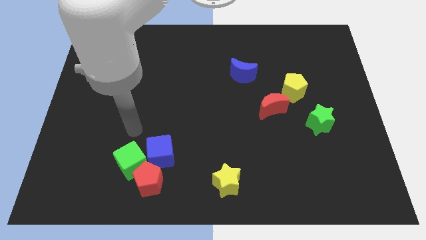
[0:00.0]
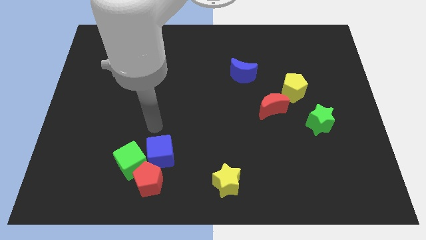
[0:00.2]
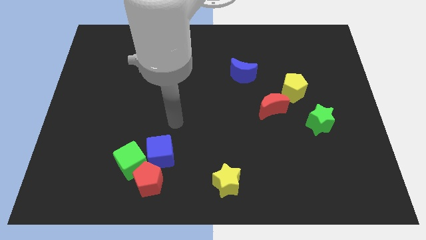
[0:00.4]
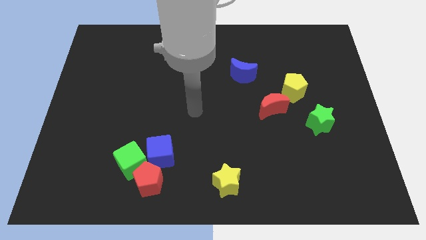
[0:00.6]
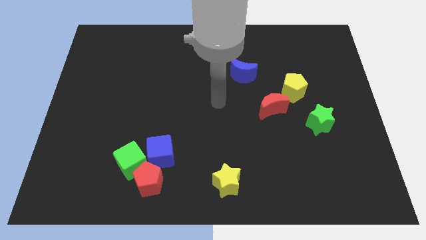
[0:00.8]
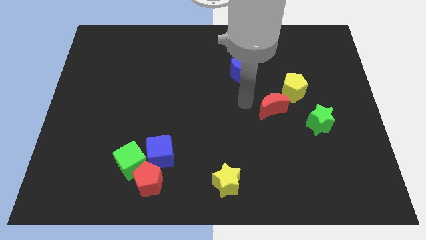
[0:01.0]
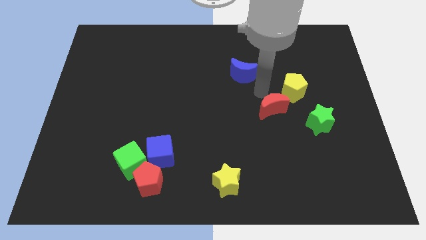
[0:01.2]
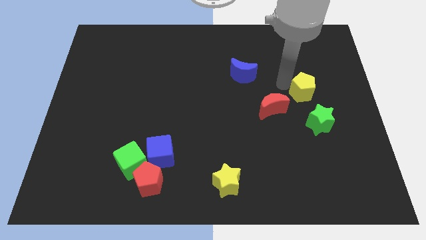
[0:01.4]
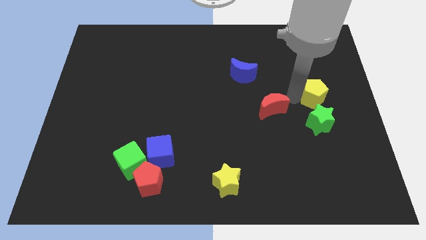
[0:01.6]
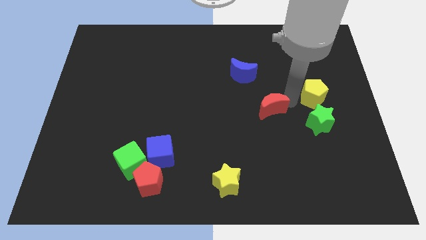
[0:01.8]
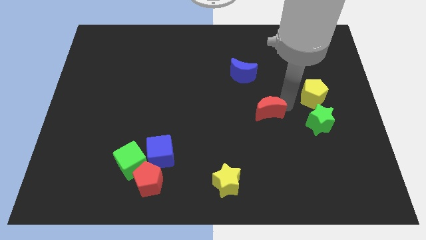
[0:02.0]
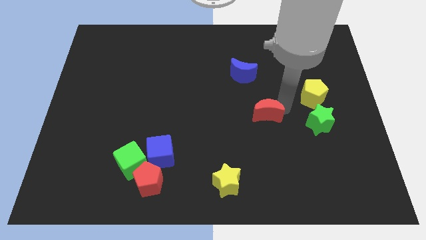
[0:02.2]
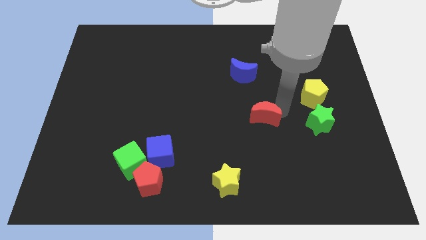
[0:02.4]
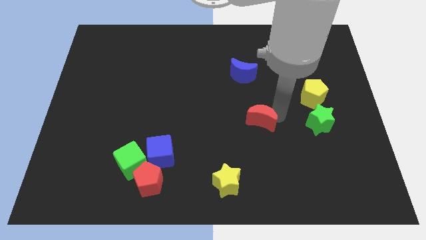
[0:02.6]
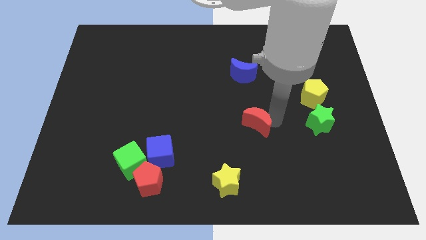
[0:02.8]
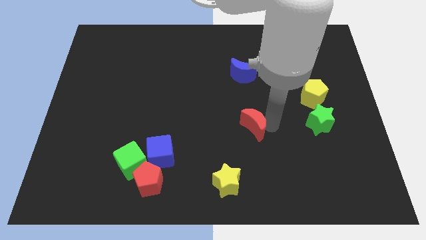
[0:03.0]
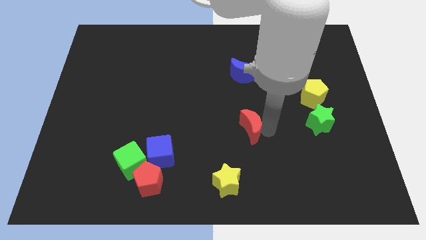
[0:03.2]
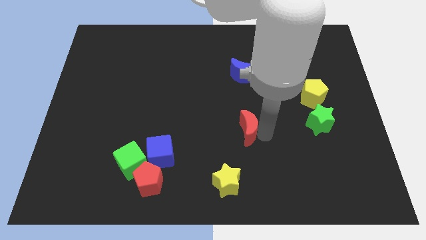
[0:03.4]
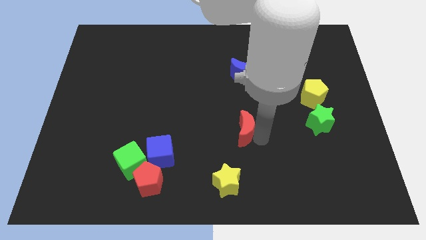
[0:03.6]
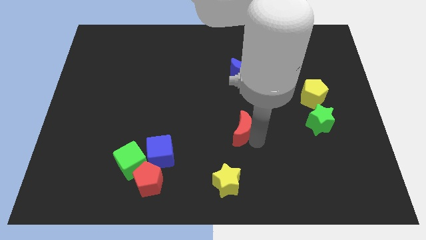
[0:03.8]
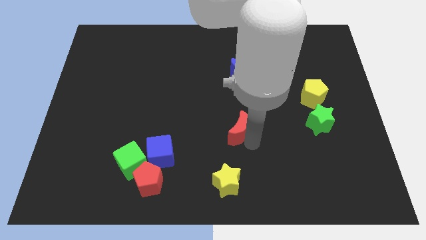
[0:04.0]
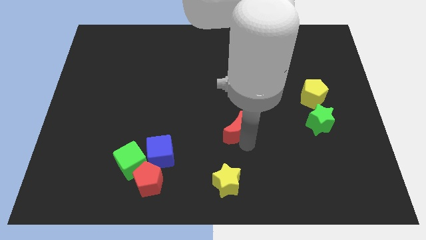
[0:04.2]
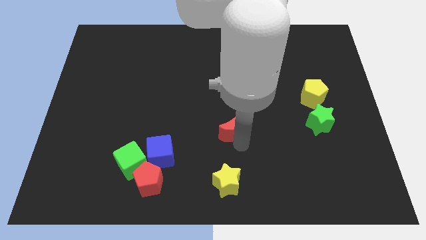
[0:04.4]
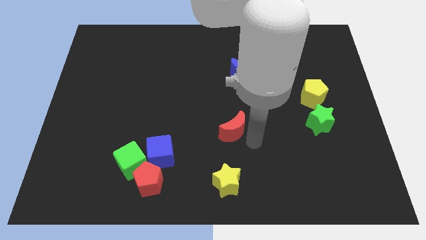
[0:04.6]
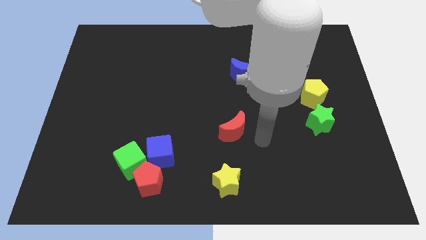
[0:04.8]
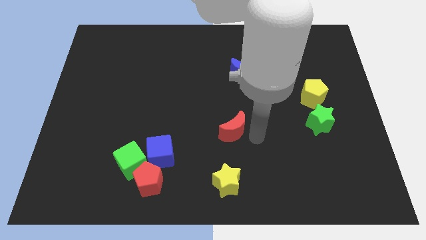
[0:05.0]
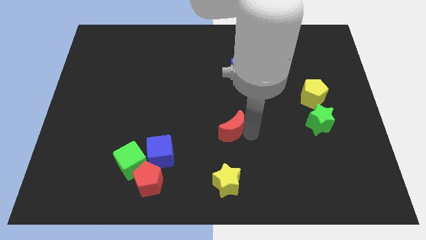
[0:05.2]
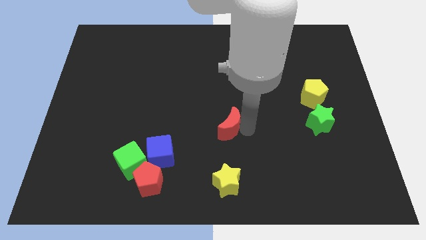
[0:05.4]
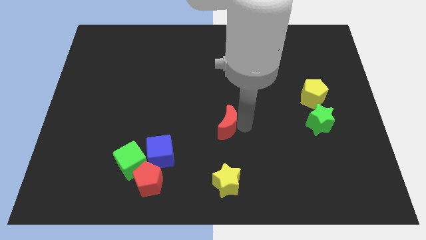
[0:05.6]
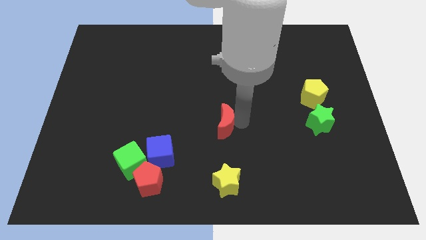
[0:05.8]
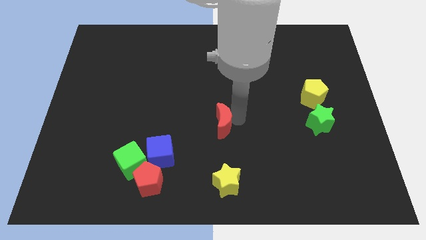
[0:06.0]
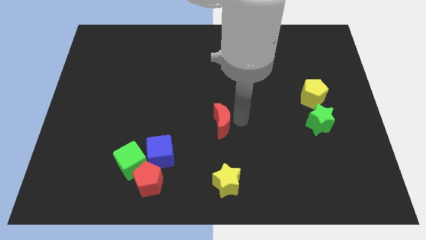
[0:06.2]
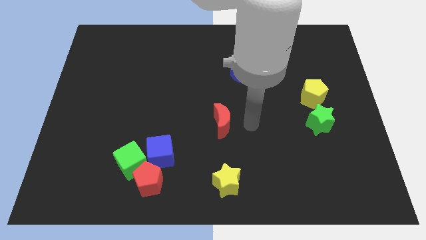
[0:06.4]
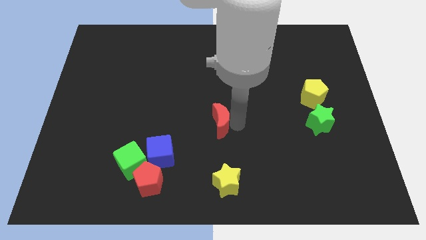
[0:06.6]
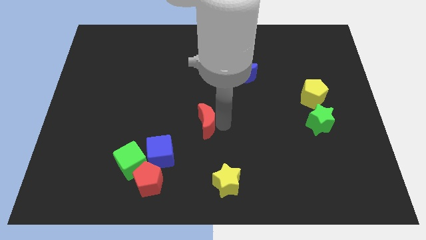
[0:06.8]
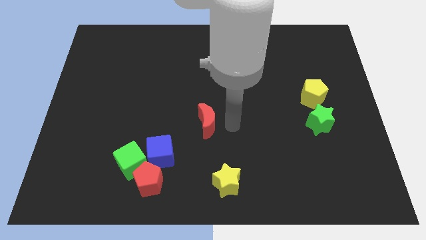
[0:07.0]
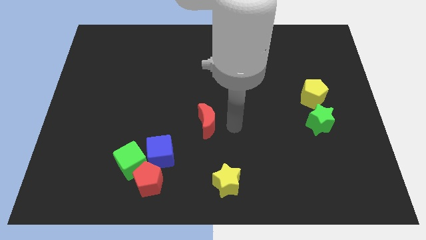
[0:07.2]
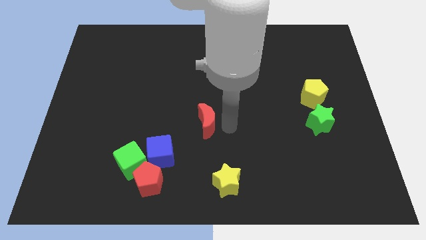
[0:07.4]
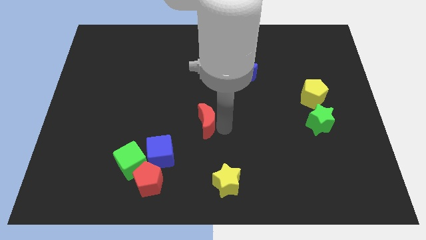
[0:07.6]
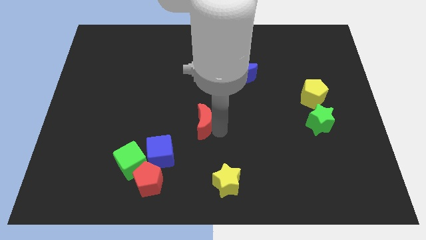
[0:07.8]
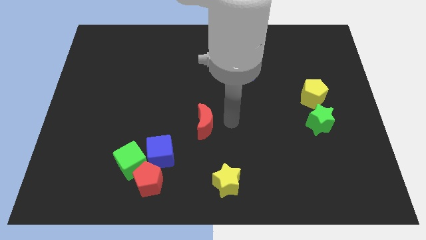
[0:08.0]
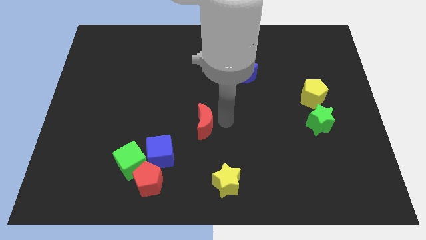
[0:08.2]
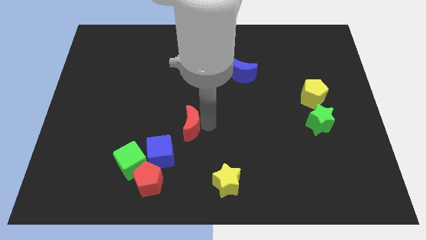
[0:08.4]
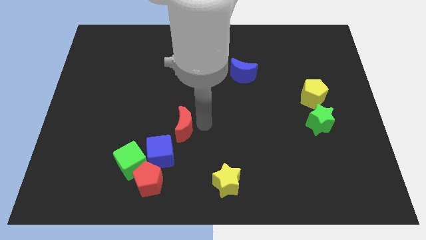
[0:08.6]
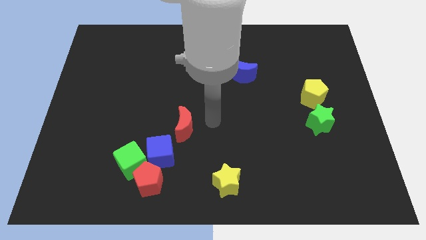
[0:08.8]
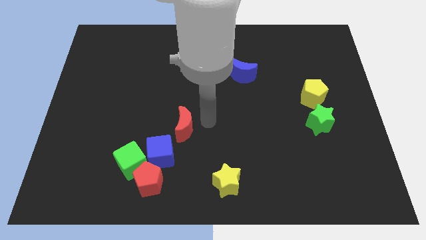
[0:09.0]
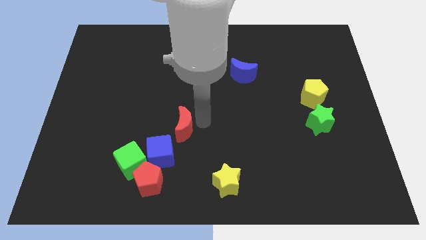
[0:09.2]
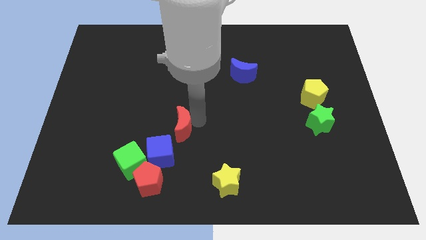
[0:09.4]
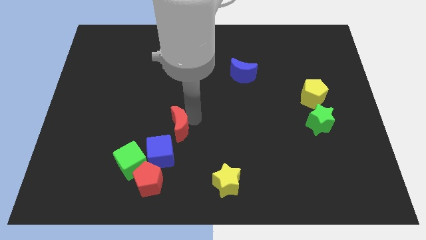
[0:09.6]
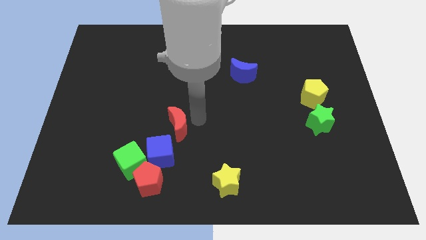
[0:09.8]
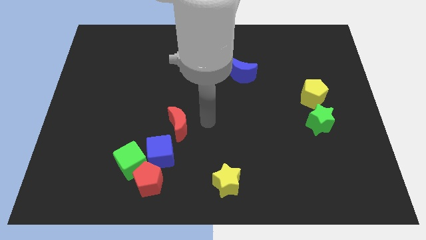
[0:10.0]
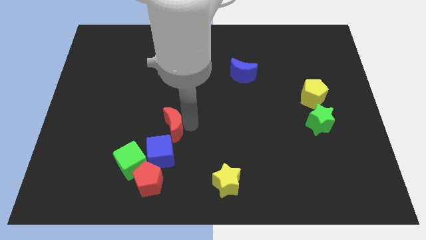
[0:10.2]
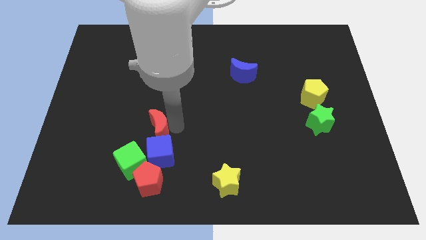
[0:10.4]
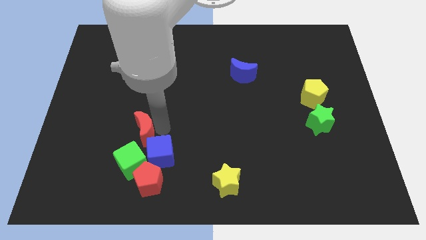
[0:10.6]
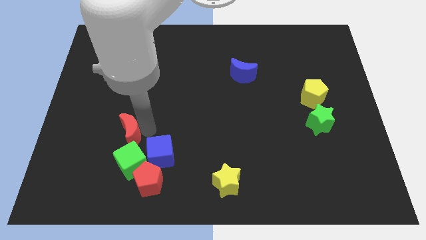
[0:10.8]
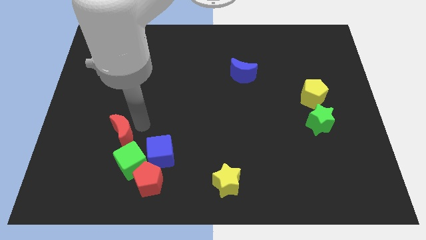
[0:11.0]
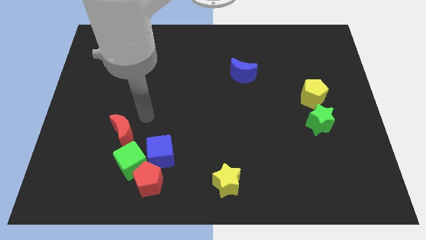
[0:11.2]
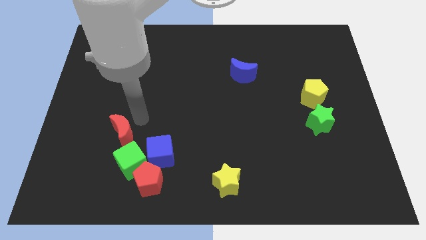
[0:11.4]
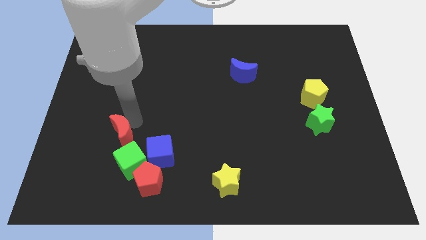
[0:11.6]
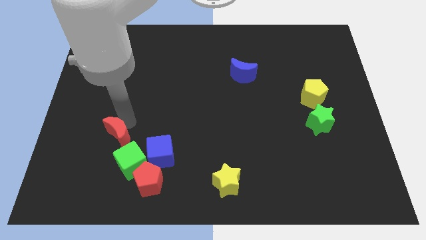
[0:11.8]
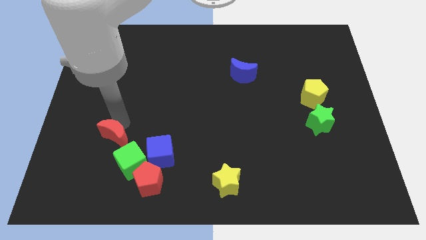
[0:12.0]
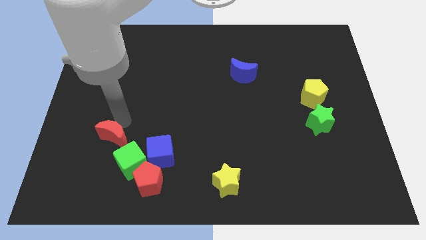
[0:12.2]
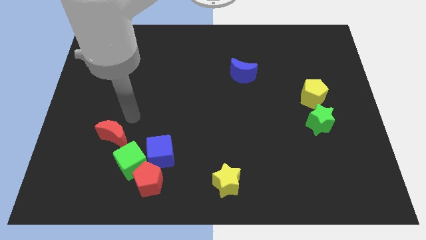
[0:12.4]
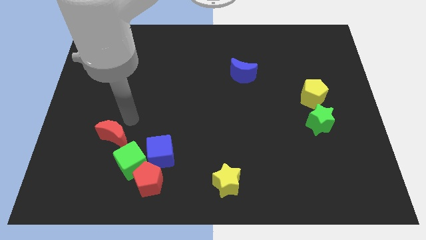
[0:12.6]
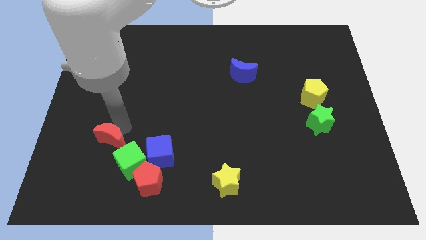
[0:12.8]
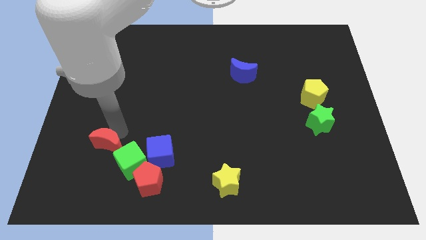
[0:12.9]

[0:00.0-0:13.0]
slide the red moon left of the green cube

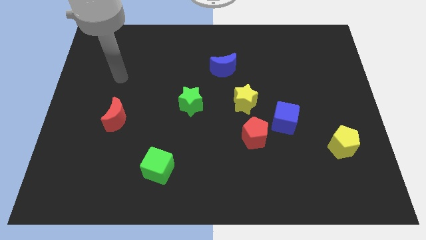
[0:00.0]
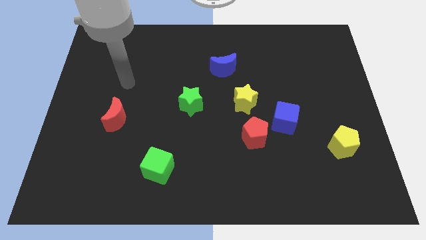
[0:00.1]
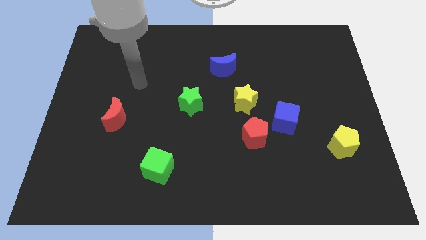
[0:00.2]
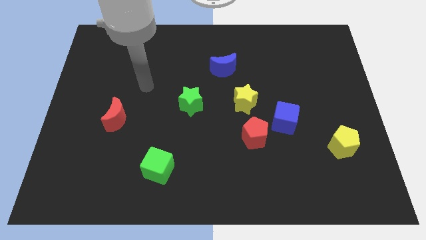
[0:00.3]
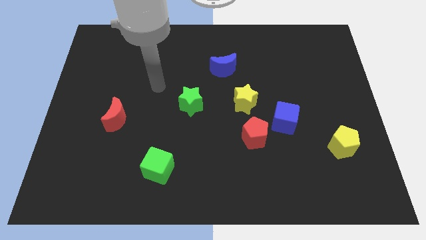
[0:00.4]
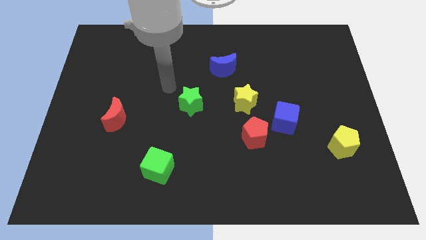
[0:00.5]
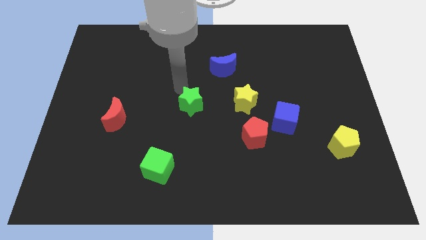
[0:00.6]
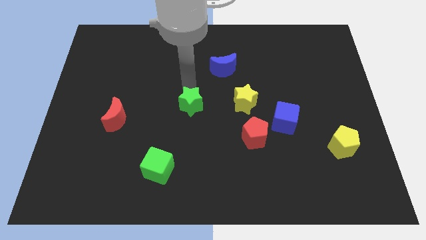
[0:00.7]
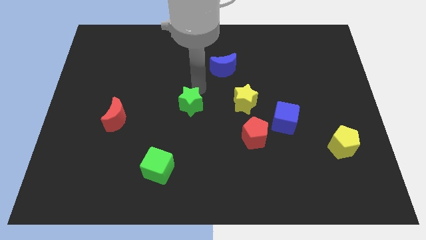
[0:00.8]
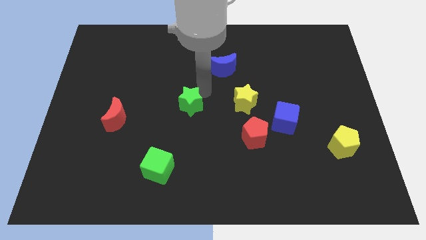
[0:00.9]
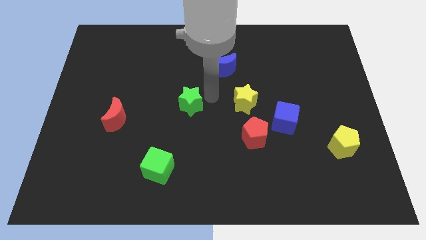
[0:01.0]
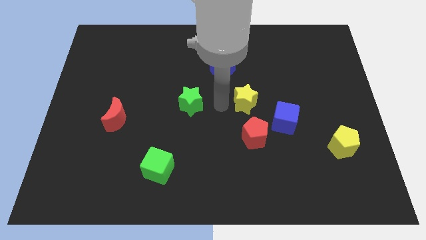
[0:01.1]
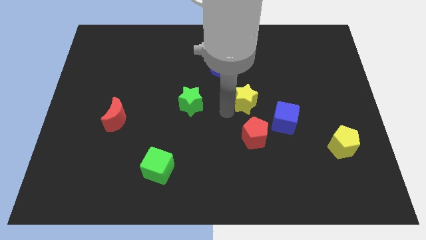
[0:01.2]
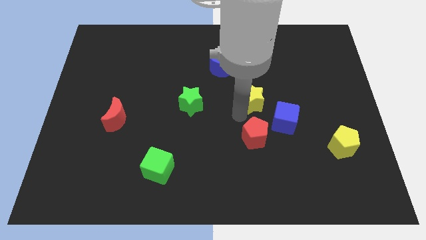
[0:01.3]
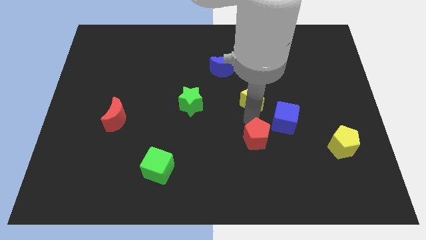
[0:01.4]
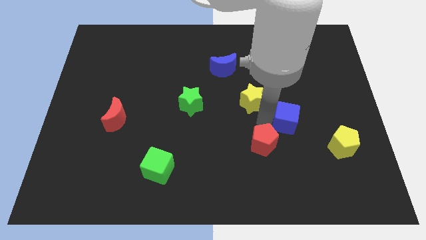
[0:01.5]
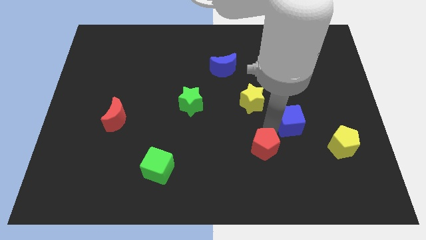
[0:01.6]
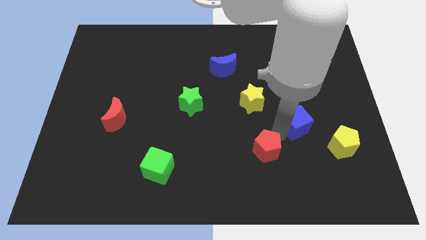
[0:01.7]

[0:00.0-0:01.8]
slide the yellow pentagon to the bottom right side of the blue cube
